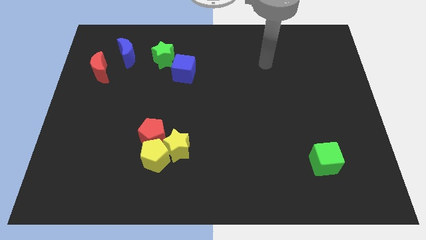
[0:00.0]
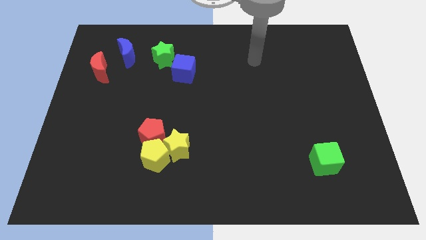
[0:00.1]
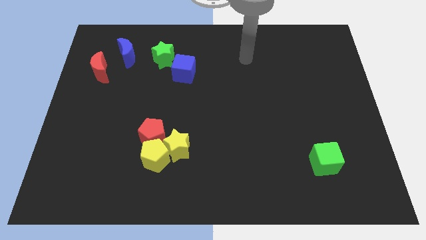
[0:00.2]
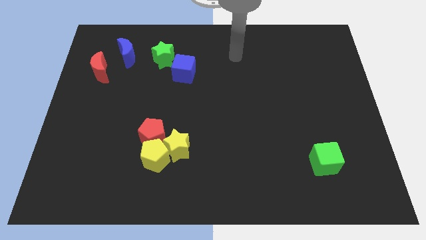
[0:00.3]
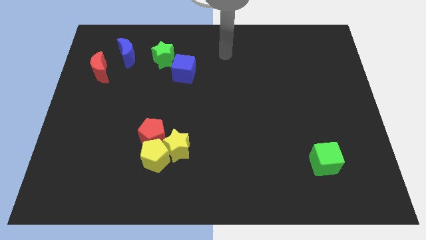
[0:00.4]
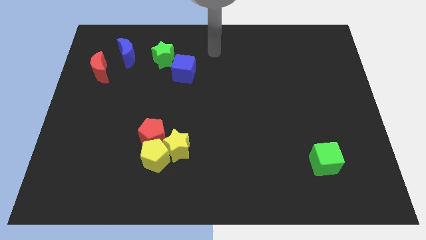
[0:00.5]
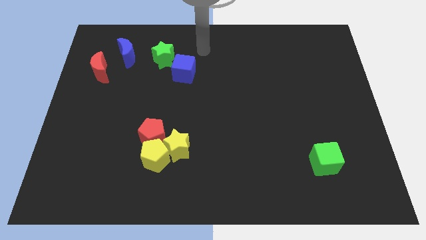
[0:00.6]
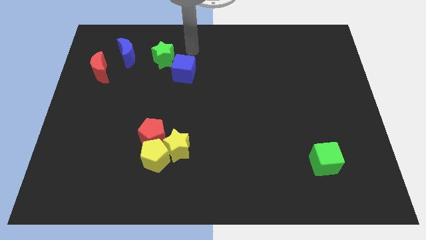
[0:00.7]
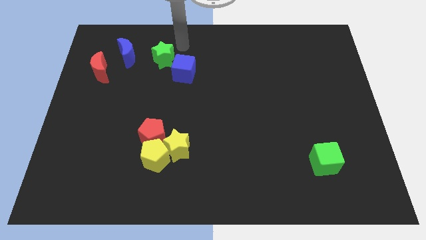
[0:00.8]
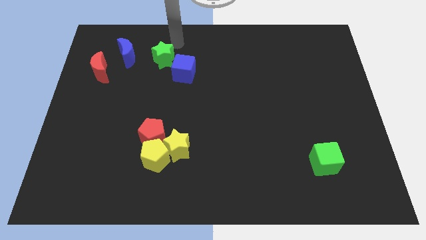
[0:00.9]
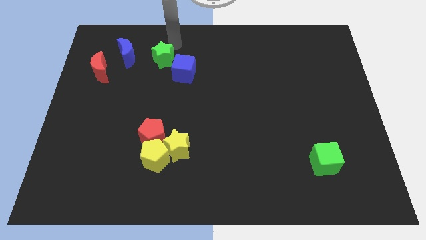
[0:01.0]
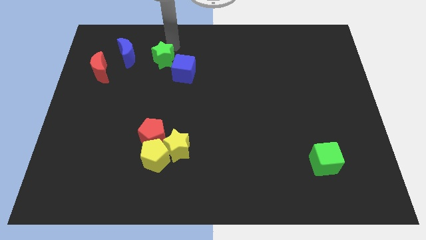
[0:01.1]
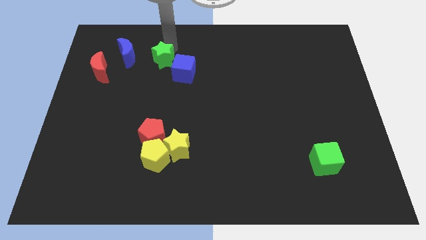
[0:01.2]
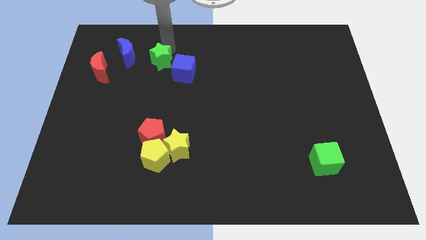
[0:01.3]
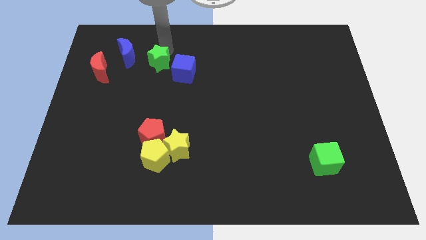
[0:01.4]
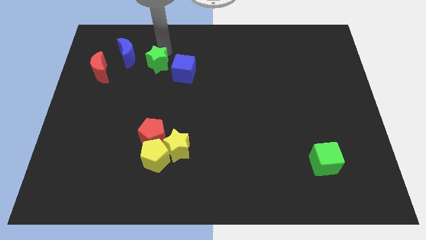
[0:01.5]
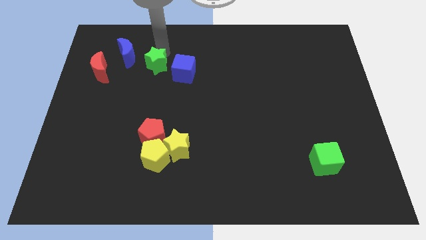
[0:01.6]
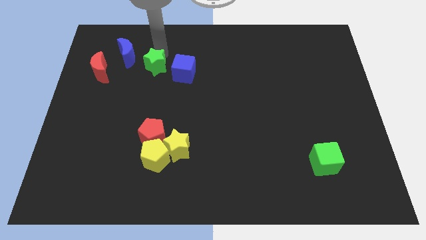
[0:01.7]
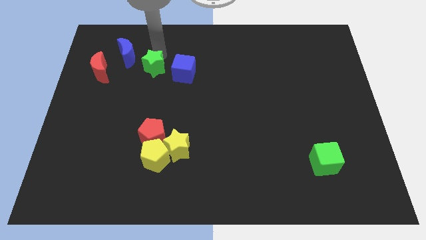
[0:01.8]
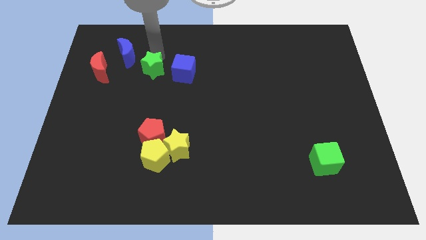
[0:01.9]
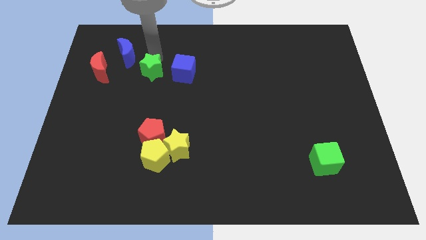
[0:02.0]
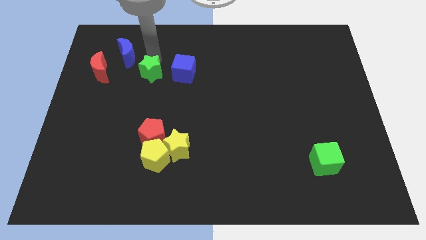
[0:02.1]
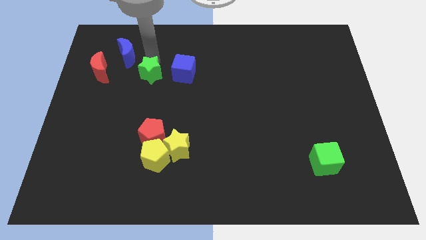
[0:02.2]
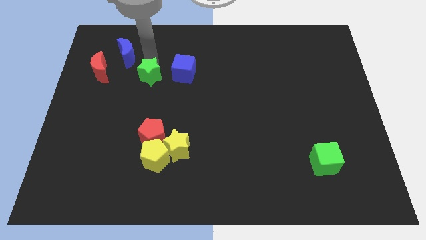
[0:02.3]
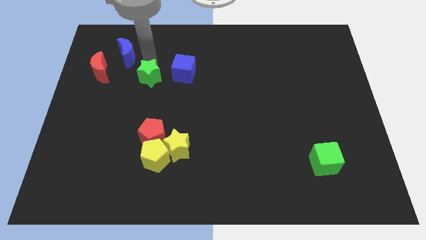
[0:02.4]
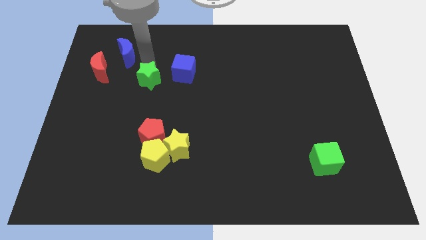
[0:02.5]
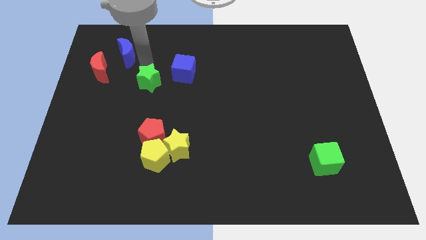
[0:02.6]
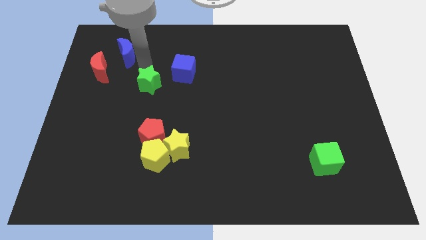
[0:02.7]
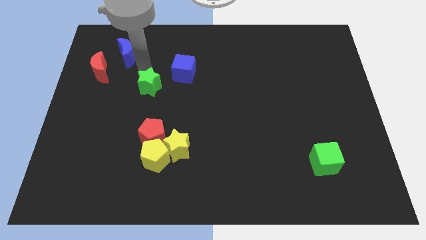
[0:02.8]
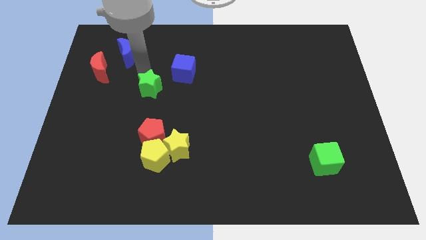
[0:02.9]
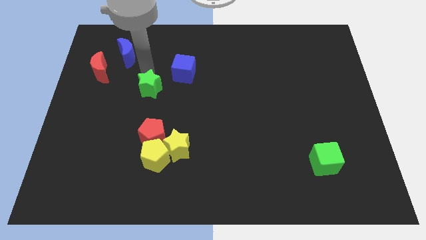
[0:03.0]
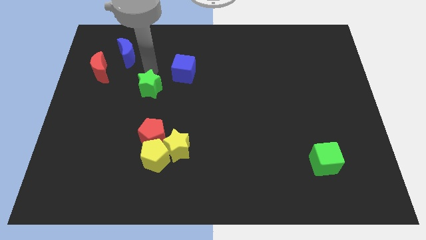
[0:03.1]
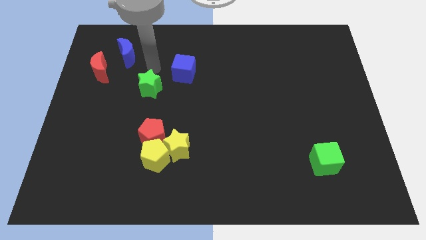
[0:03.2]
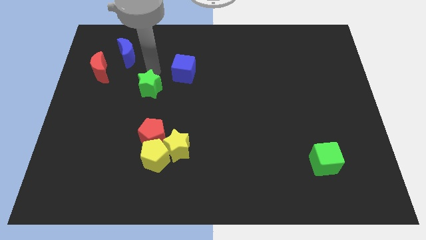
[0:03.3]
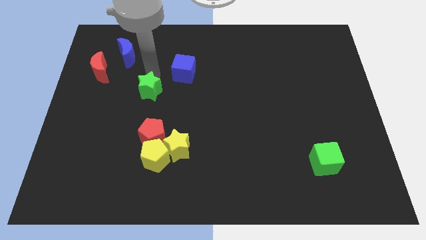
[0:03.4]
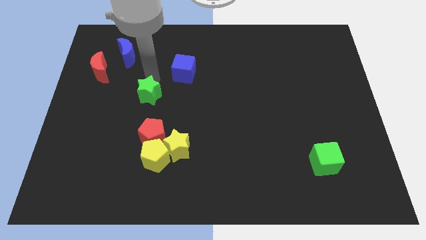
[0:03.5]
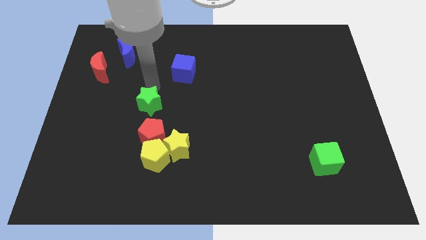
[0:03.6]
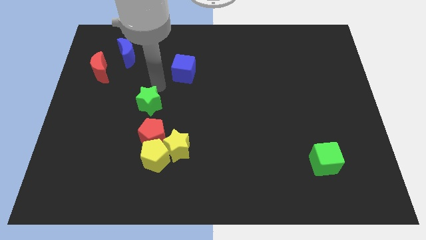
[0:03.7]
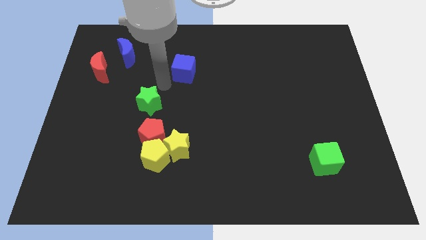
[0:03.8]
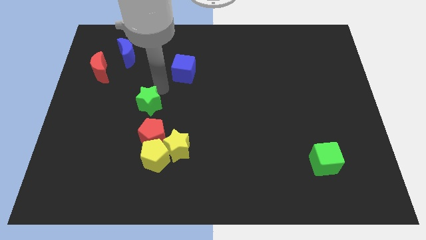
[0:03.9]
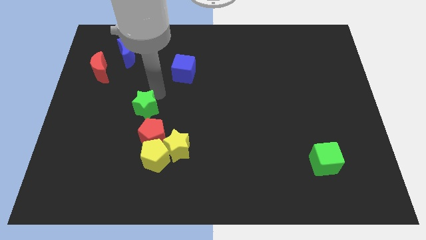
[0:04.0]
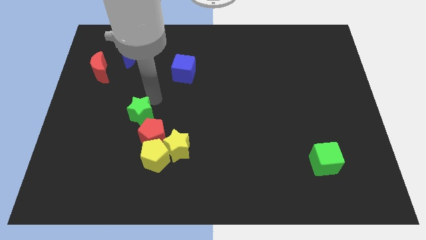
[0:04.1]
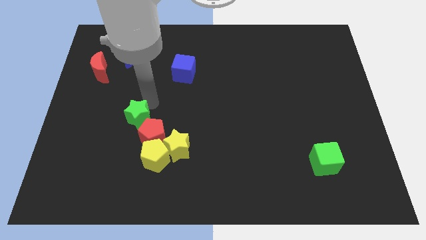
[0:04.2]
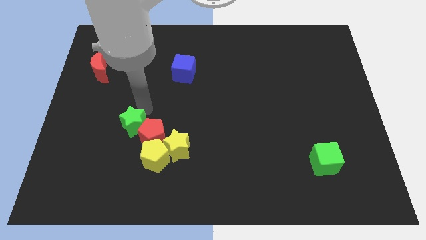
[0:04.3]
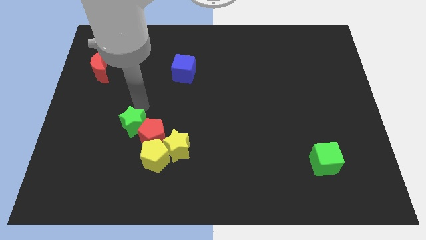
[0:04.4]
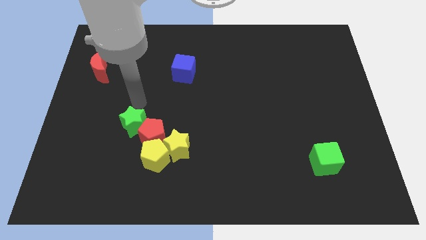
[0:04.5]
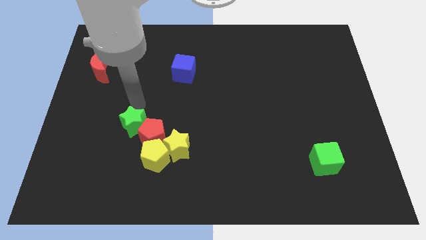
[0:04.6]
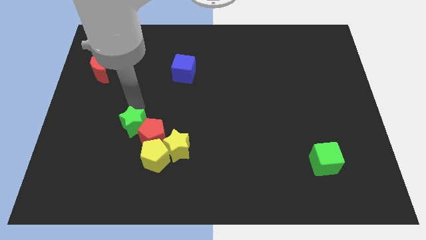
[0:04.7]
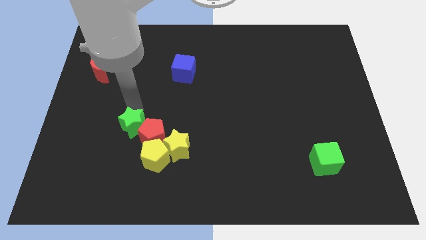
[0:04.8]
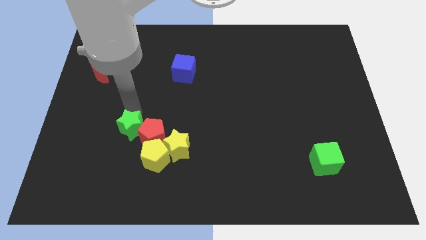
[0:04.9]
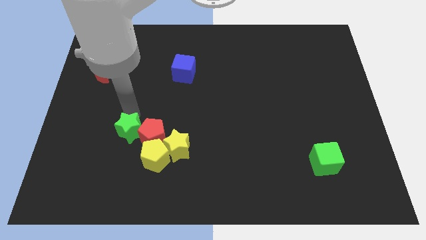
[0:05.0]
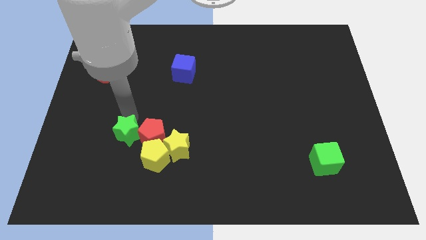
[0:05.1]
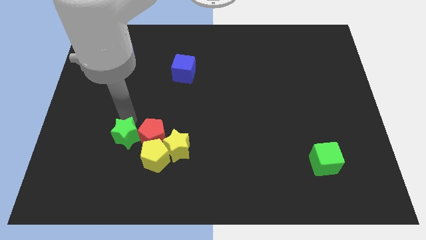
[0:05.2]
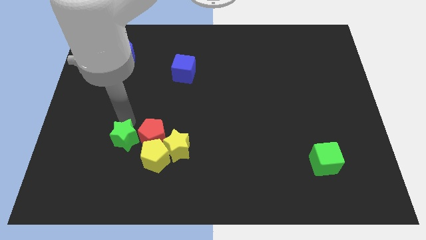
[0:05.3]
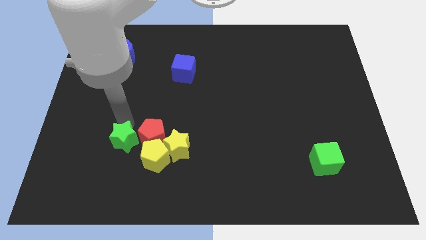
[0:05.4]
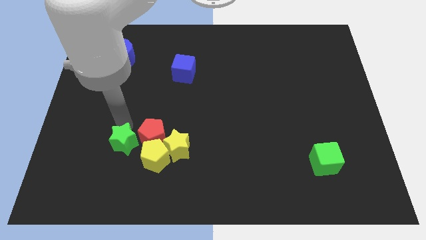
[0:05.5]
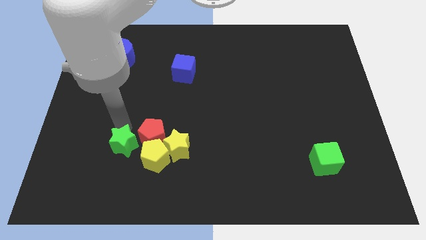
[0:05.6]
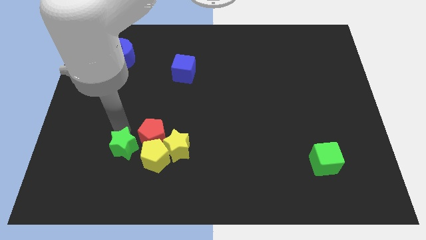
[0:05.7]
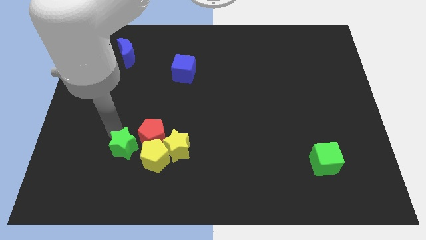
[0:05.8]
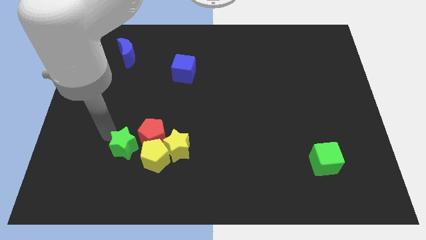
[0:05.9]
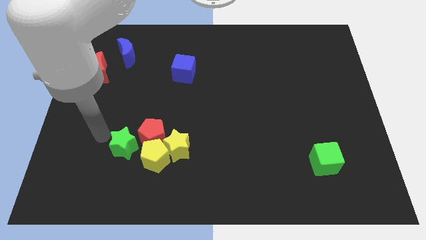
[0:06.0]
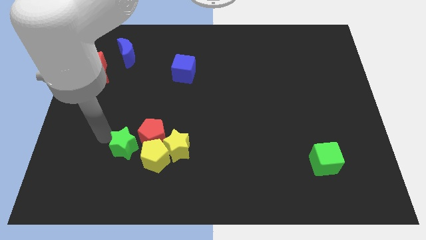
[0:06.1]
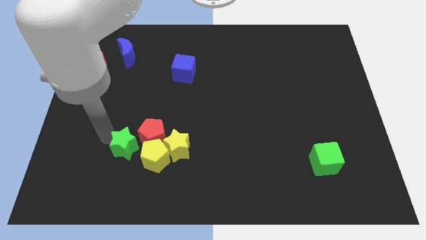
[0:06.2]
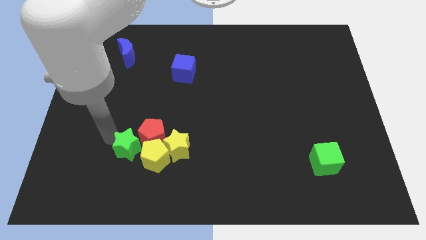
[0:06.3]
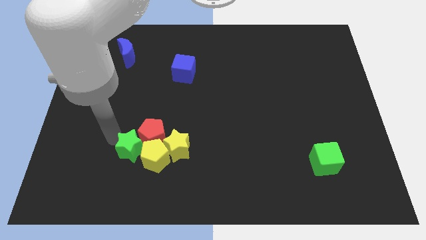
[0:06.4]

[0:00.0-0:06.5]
put the green star to the yellow pentagon
